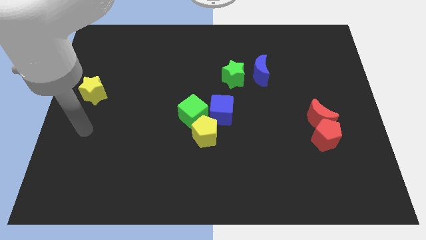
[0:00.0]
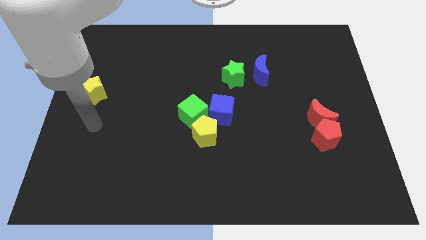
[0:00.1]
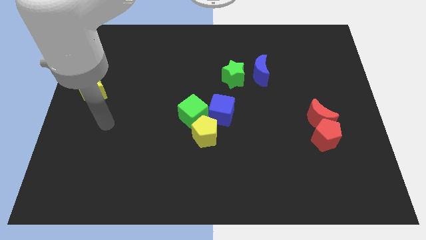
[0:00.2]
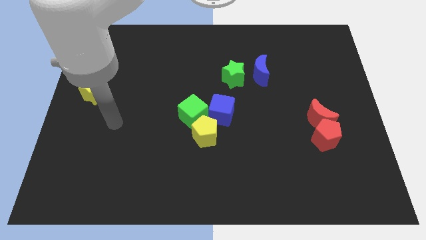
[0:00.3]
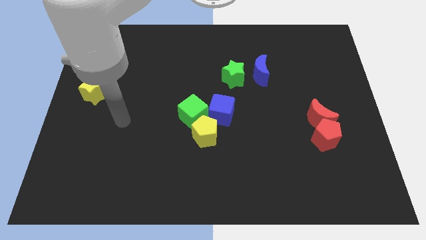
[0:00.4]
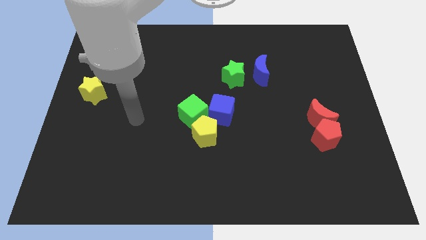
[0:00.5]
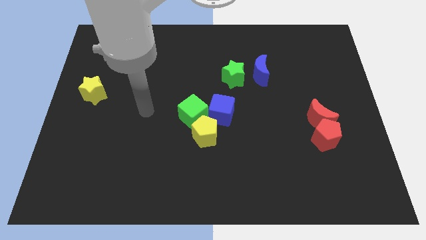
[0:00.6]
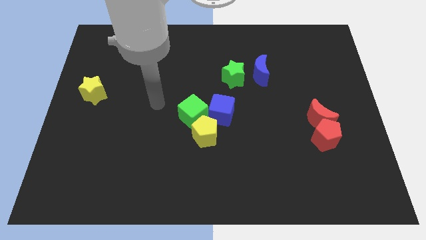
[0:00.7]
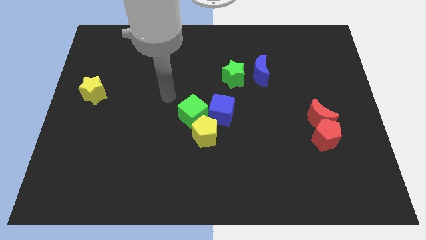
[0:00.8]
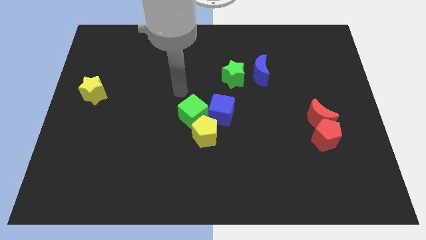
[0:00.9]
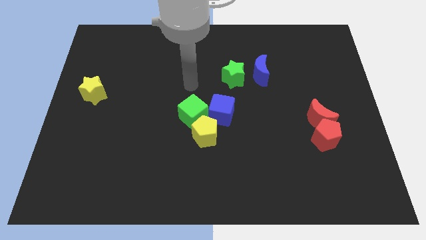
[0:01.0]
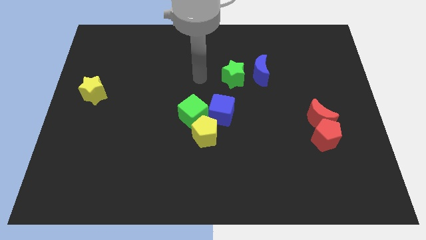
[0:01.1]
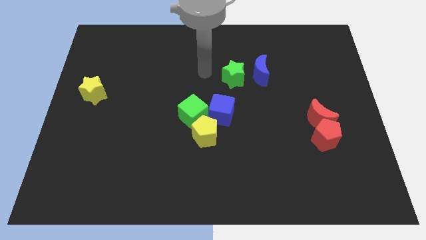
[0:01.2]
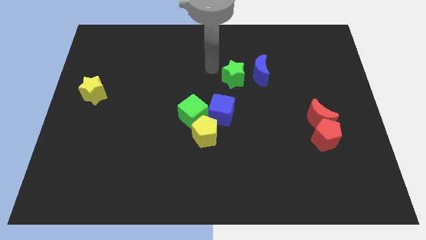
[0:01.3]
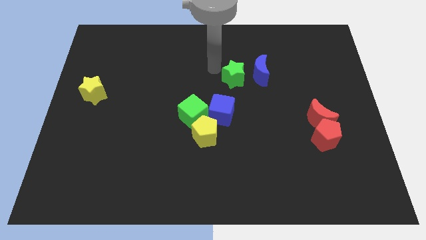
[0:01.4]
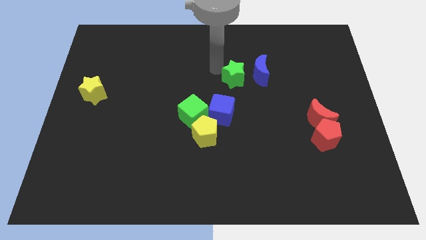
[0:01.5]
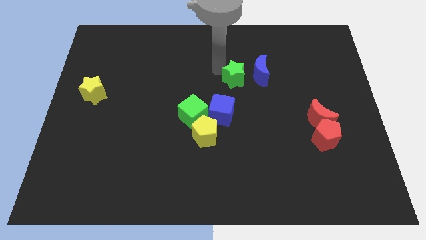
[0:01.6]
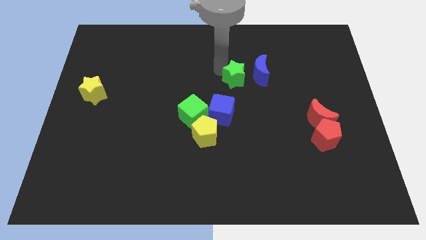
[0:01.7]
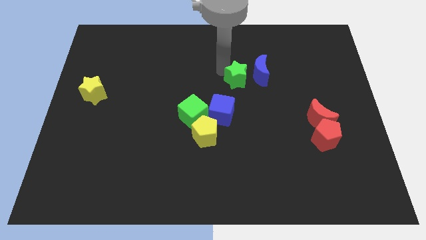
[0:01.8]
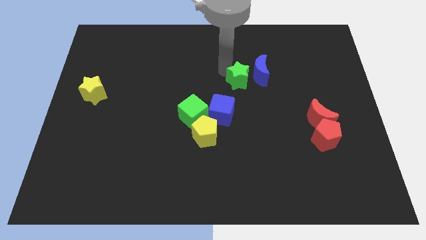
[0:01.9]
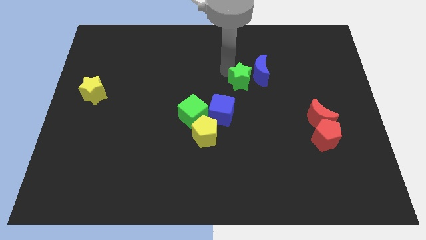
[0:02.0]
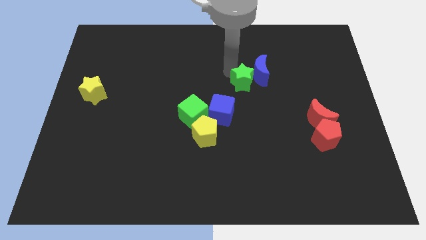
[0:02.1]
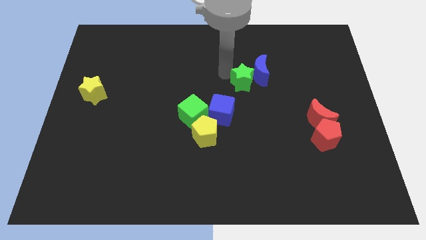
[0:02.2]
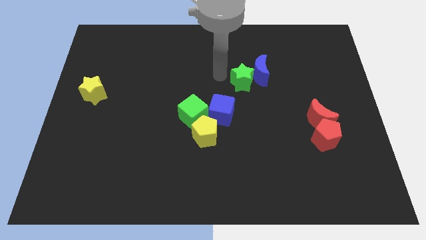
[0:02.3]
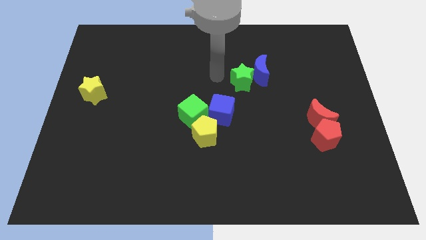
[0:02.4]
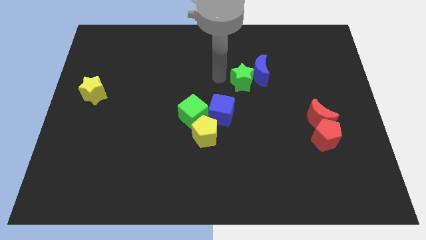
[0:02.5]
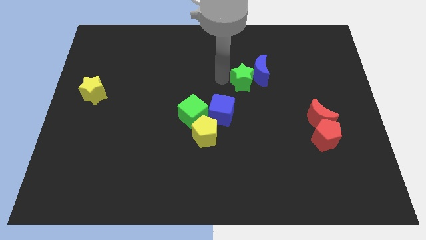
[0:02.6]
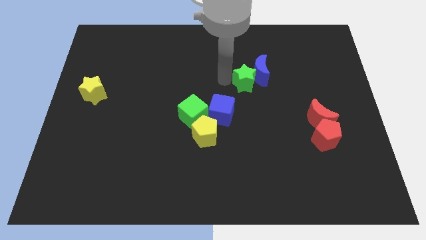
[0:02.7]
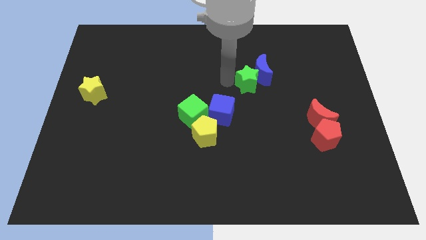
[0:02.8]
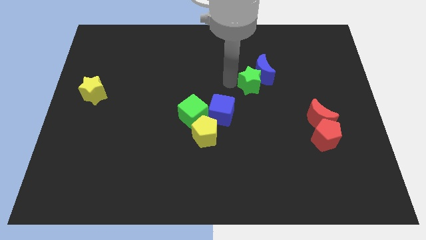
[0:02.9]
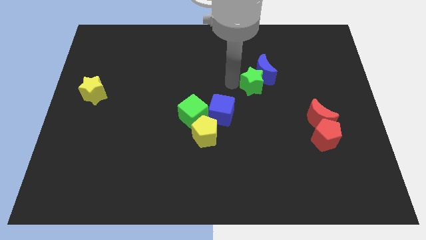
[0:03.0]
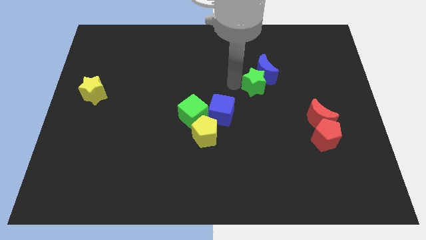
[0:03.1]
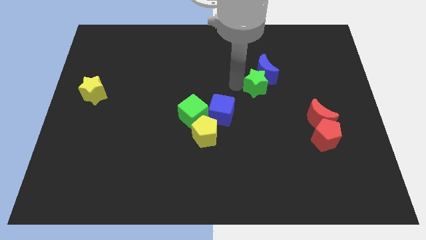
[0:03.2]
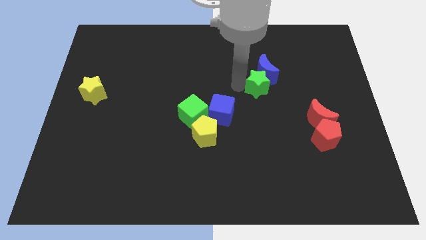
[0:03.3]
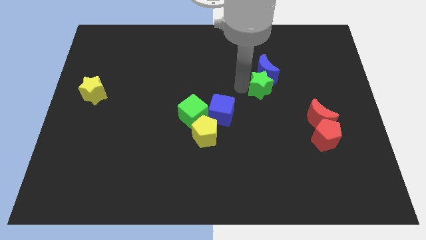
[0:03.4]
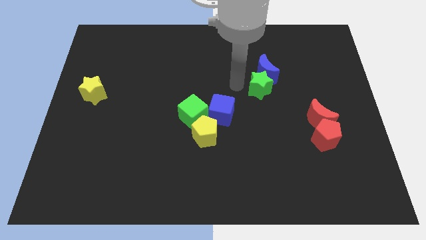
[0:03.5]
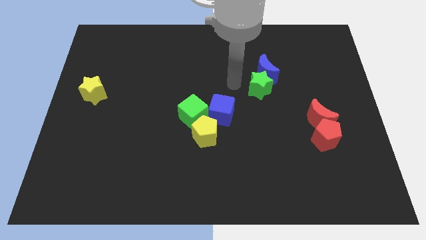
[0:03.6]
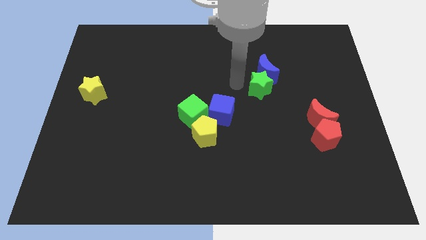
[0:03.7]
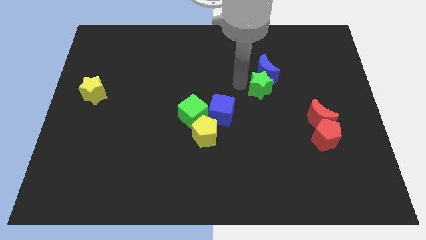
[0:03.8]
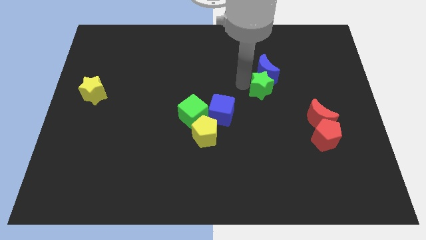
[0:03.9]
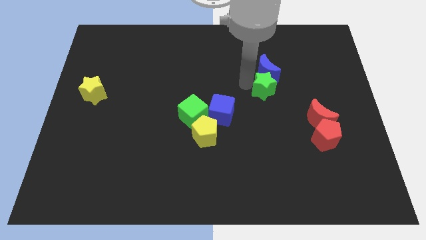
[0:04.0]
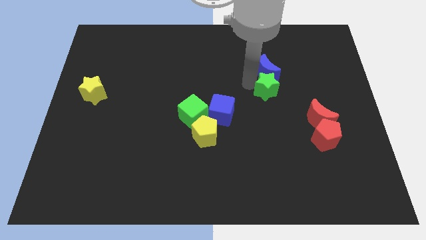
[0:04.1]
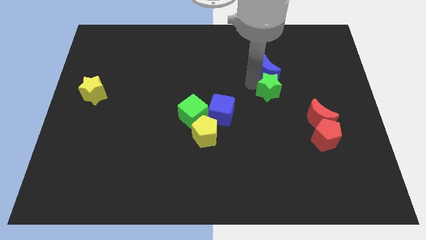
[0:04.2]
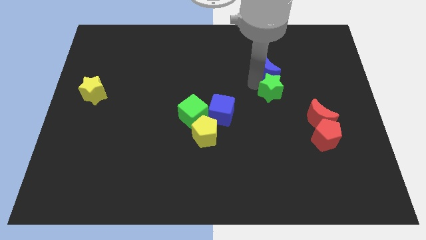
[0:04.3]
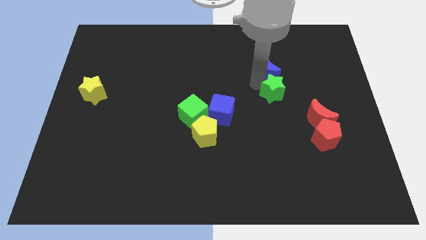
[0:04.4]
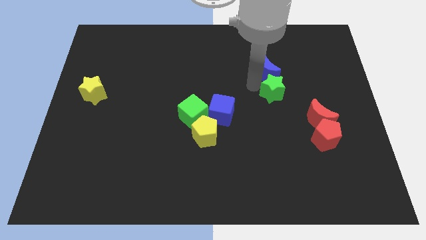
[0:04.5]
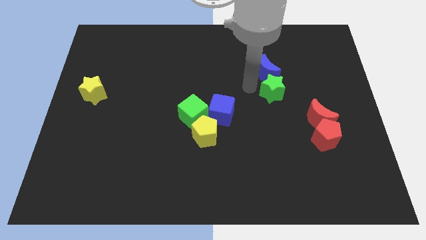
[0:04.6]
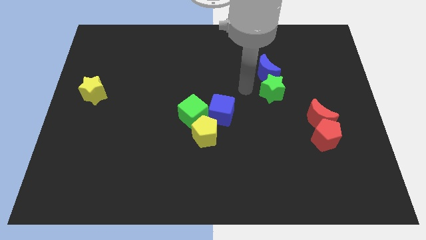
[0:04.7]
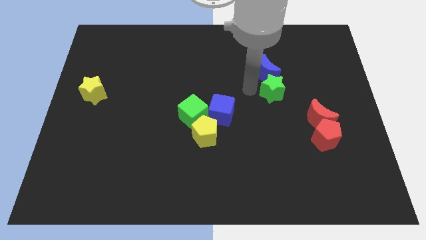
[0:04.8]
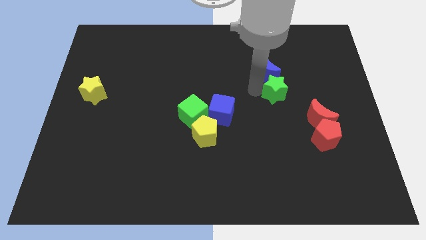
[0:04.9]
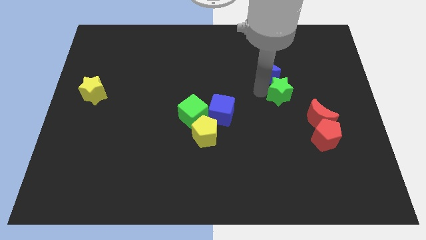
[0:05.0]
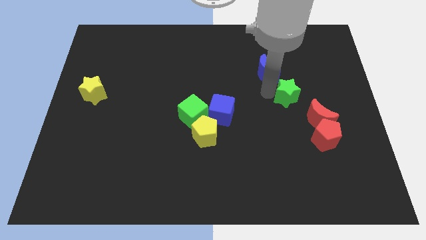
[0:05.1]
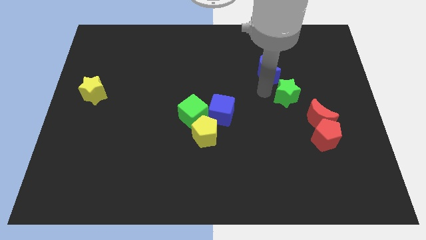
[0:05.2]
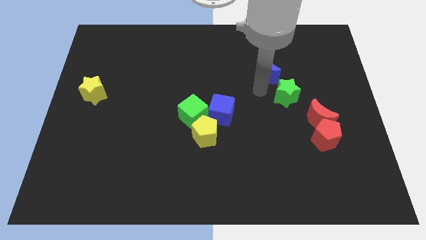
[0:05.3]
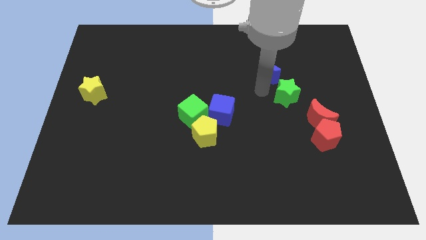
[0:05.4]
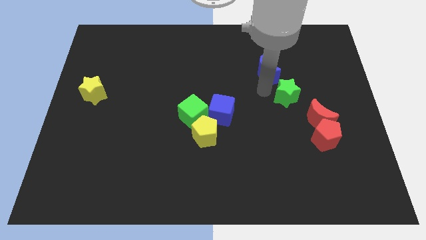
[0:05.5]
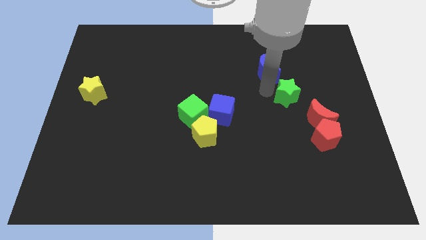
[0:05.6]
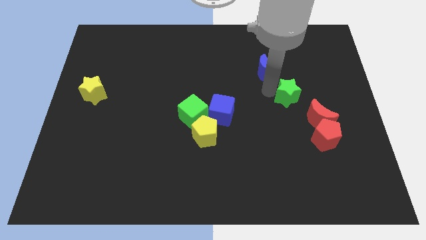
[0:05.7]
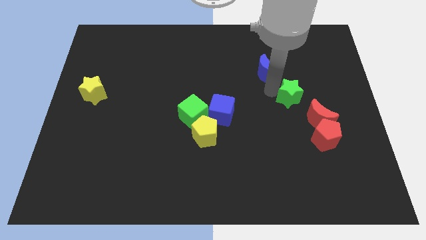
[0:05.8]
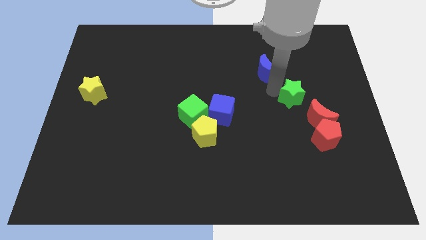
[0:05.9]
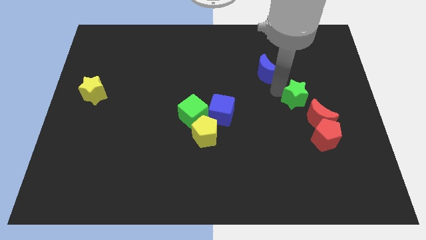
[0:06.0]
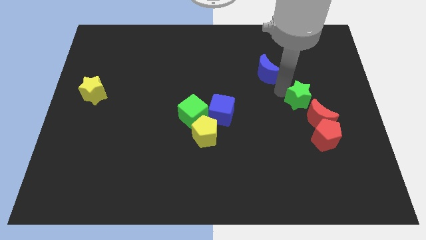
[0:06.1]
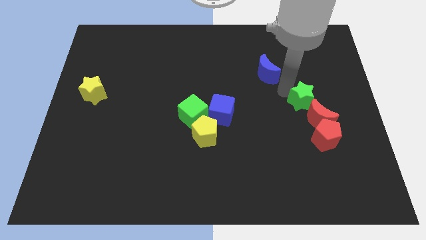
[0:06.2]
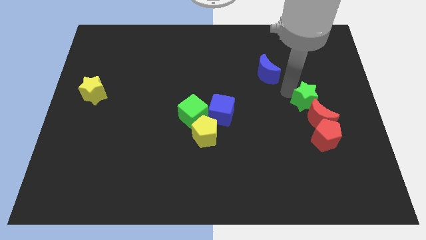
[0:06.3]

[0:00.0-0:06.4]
push the green star next to the red moon
